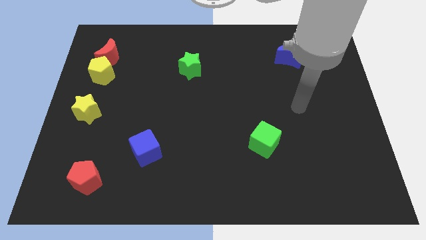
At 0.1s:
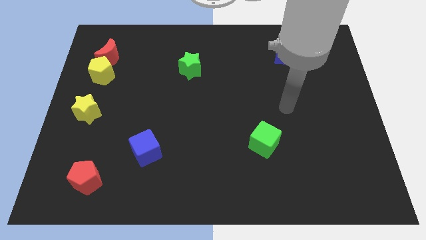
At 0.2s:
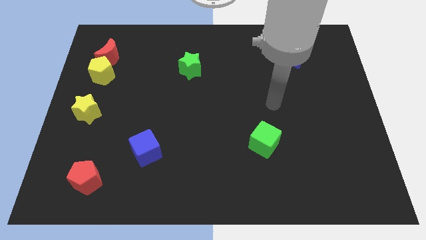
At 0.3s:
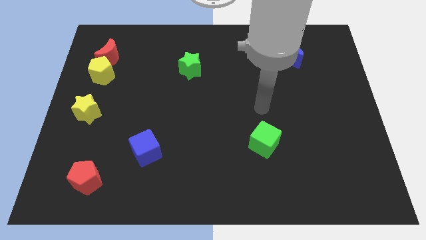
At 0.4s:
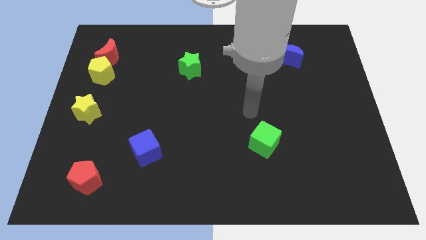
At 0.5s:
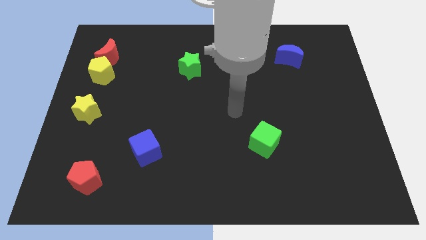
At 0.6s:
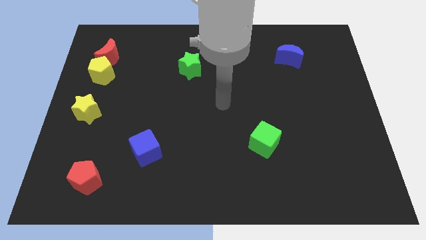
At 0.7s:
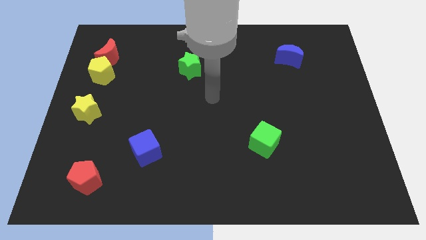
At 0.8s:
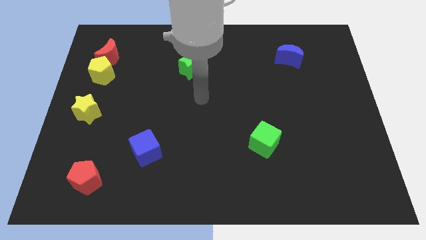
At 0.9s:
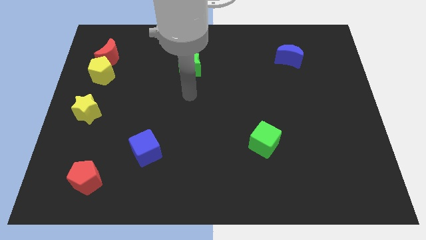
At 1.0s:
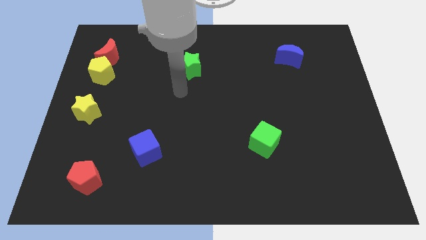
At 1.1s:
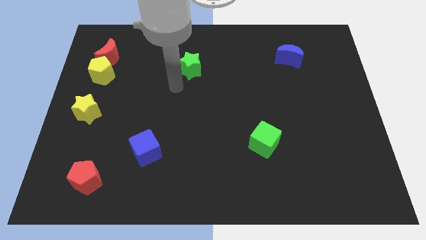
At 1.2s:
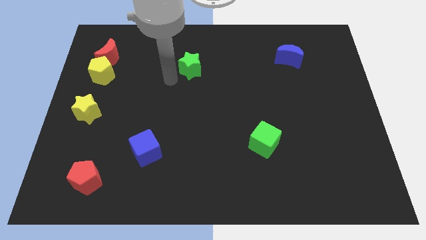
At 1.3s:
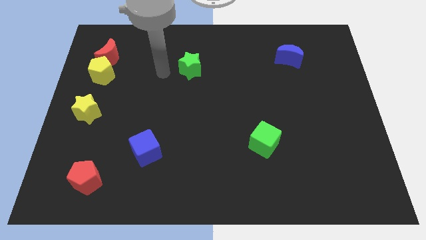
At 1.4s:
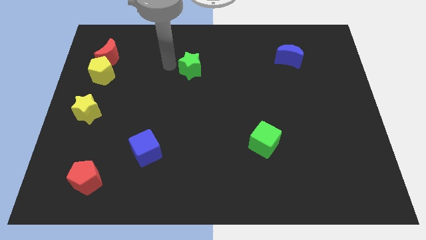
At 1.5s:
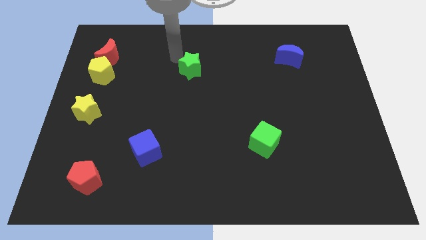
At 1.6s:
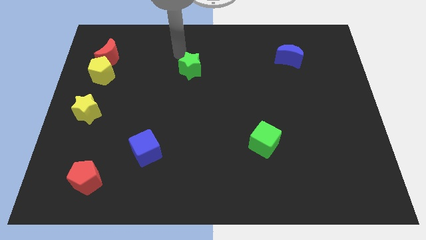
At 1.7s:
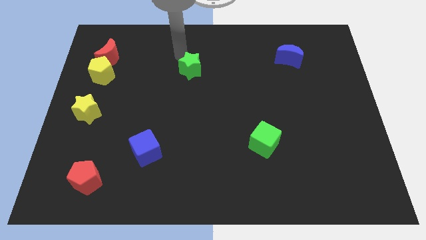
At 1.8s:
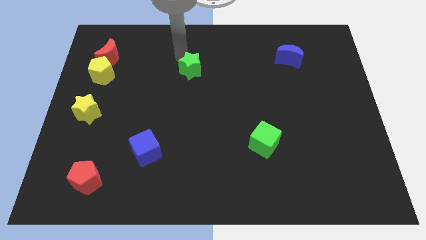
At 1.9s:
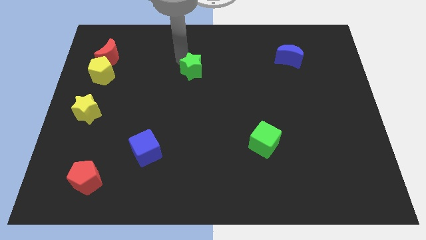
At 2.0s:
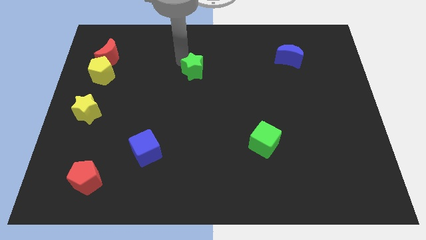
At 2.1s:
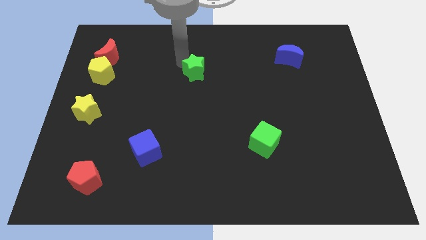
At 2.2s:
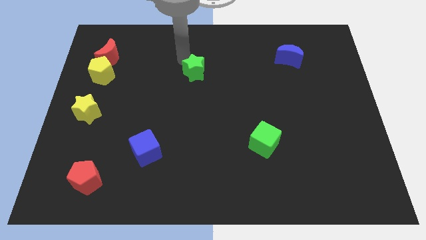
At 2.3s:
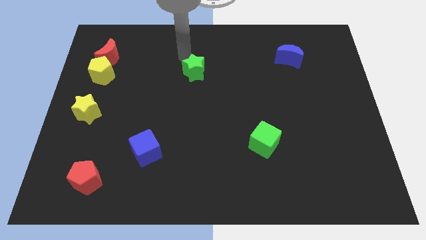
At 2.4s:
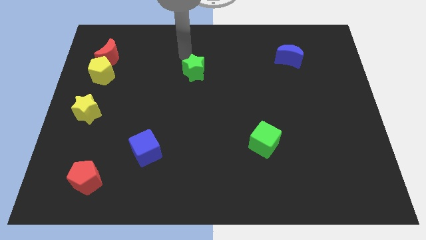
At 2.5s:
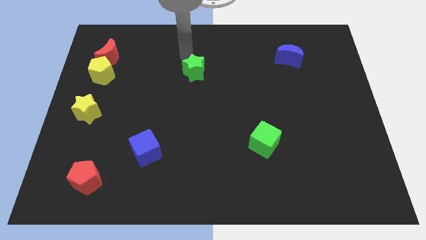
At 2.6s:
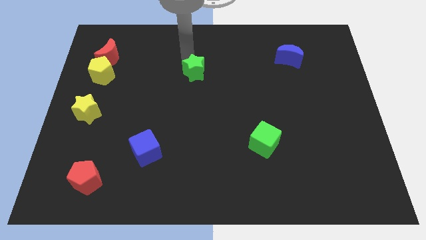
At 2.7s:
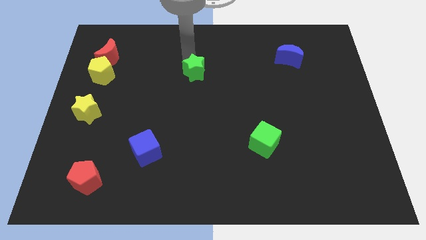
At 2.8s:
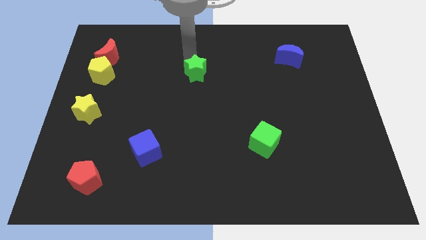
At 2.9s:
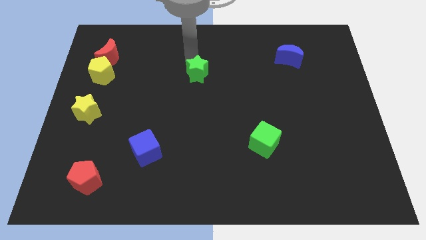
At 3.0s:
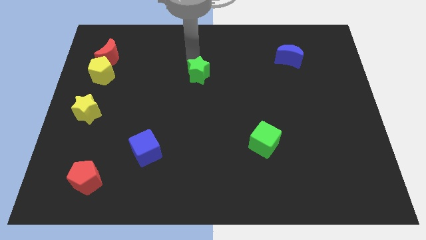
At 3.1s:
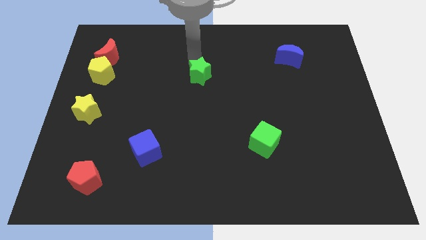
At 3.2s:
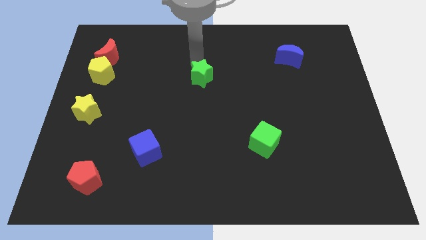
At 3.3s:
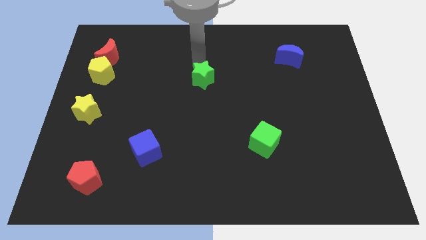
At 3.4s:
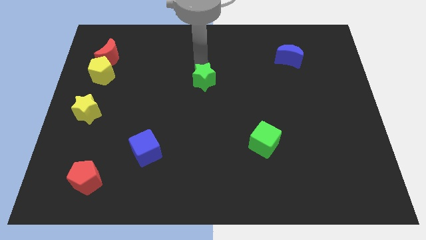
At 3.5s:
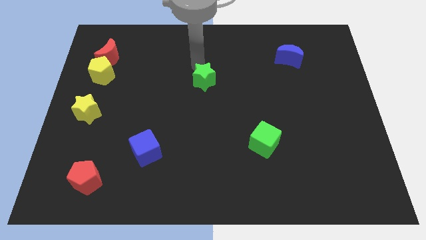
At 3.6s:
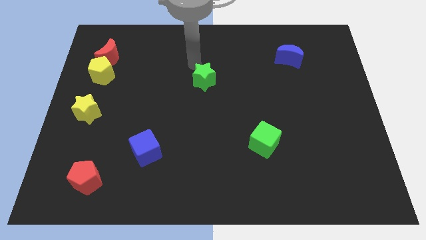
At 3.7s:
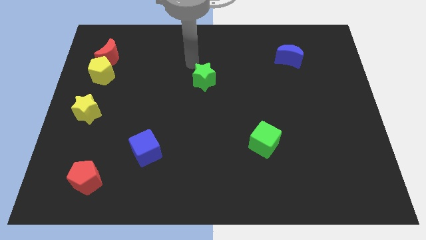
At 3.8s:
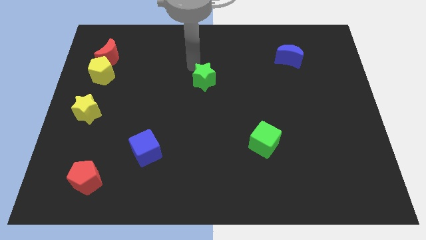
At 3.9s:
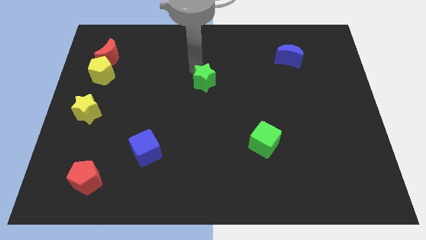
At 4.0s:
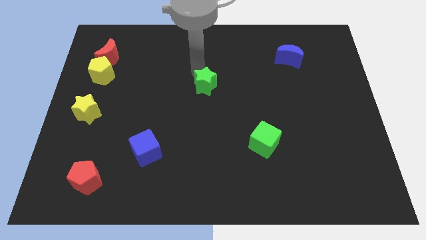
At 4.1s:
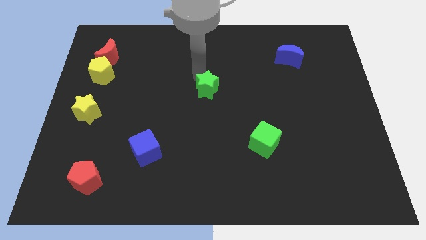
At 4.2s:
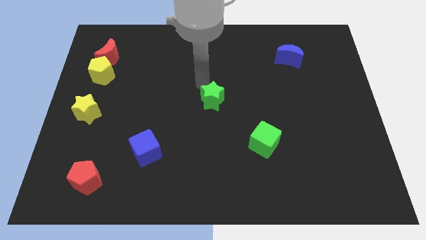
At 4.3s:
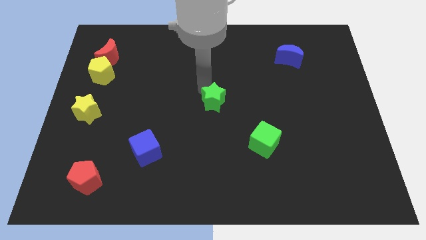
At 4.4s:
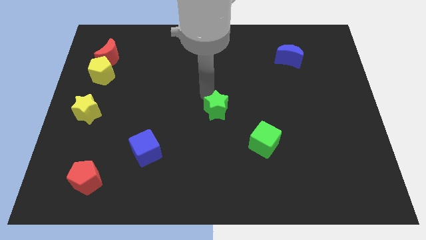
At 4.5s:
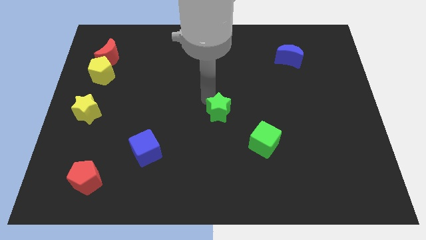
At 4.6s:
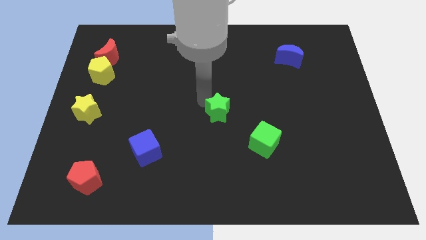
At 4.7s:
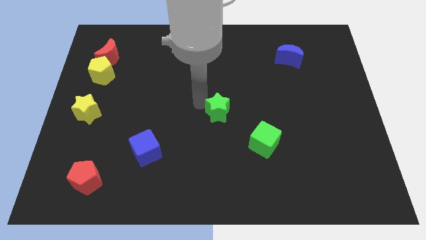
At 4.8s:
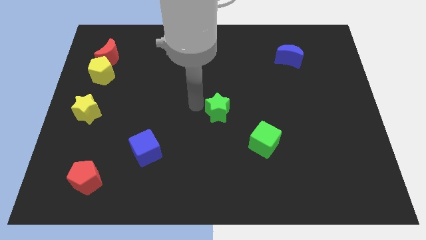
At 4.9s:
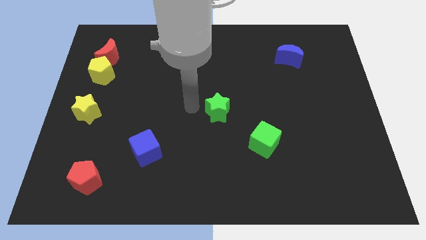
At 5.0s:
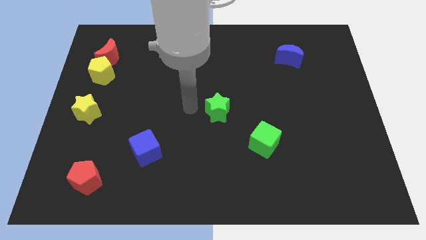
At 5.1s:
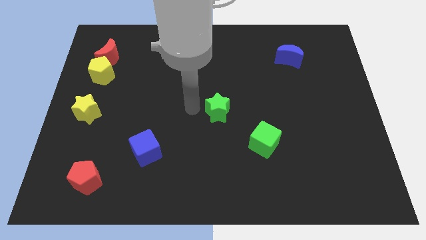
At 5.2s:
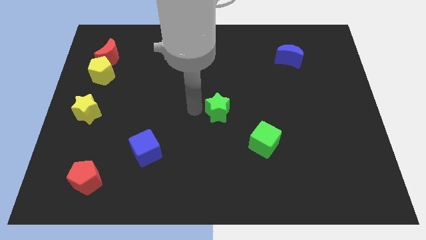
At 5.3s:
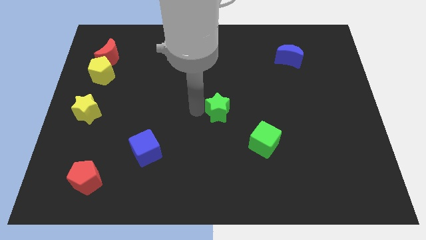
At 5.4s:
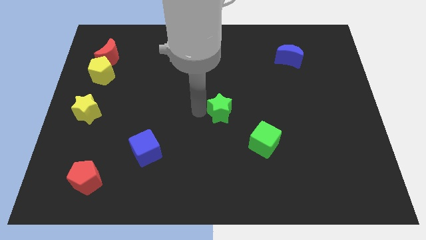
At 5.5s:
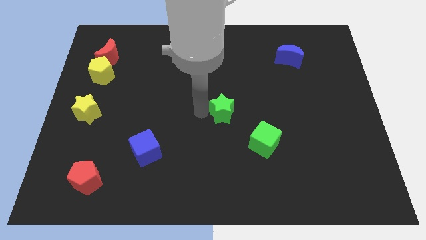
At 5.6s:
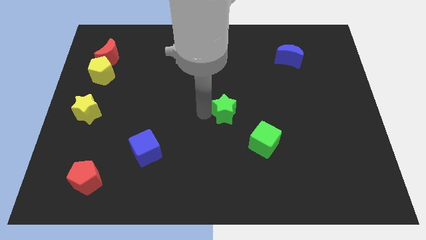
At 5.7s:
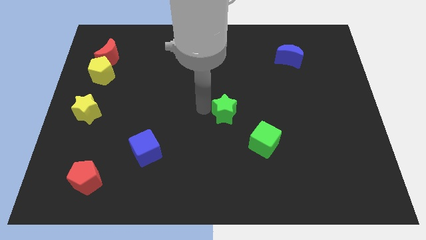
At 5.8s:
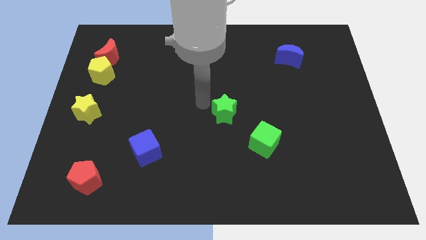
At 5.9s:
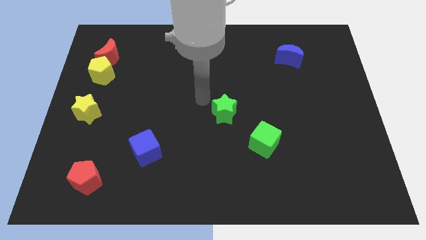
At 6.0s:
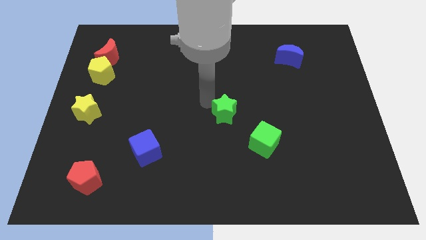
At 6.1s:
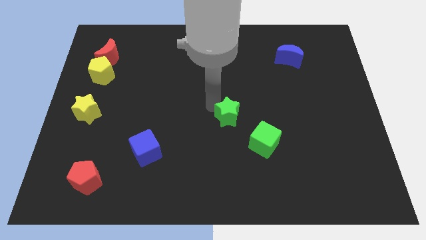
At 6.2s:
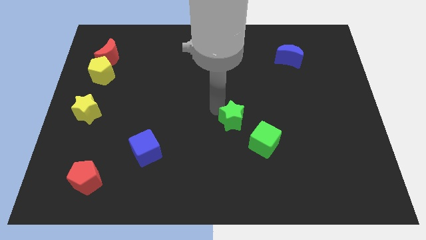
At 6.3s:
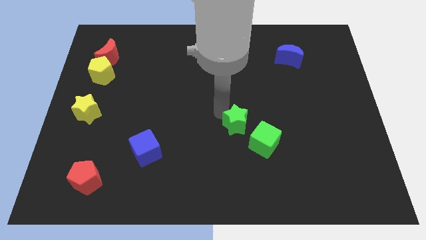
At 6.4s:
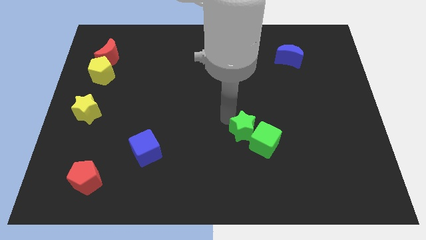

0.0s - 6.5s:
put the green star close to the green cube
